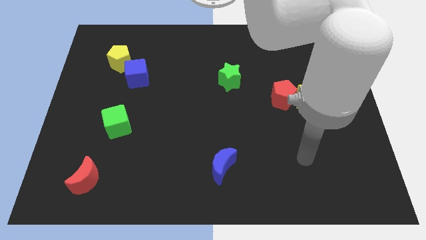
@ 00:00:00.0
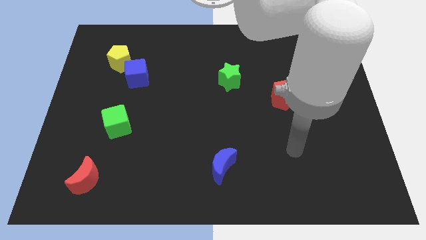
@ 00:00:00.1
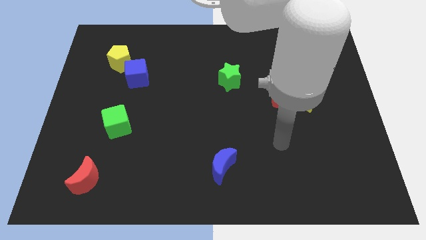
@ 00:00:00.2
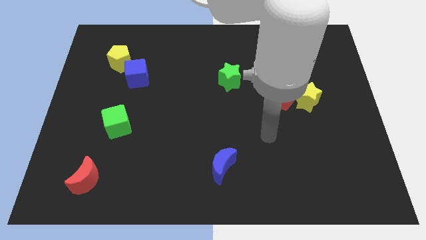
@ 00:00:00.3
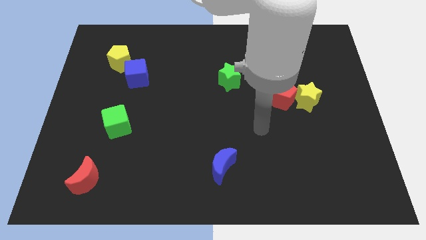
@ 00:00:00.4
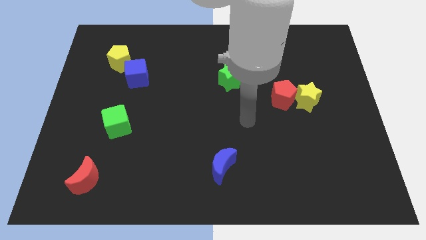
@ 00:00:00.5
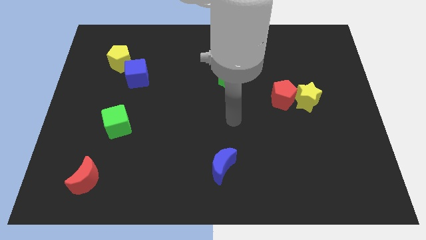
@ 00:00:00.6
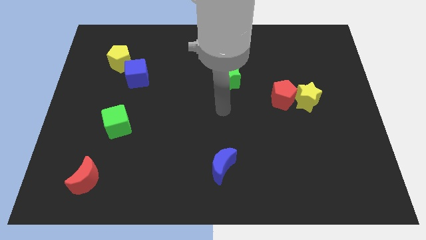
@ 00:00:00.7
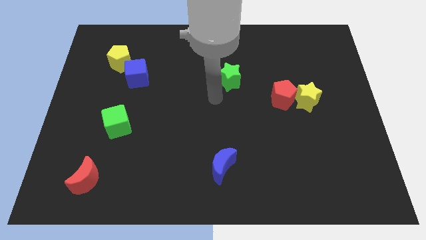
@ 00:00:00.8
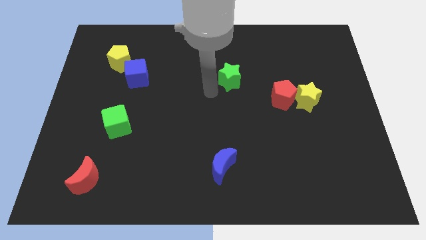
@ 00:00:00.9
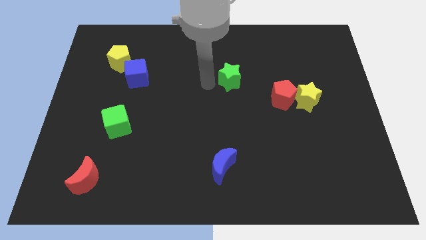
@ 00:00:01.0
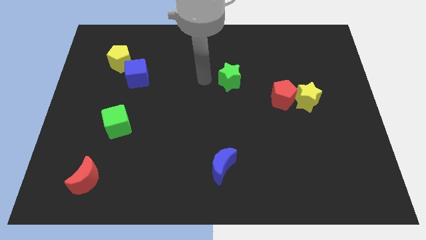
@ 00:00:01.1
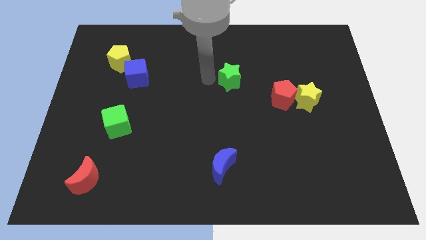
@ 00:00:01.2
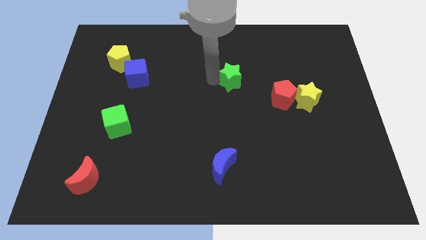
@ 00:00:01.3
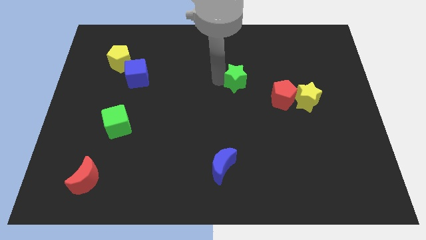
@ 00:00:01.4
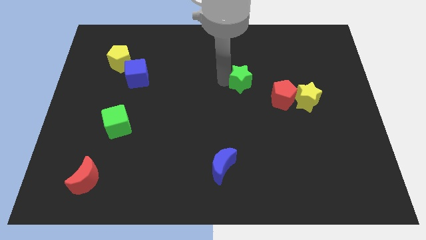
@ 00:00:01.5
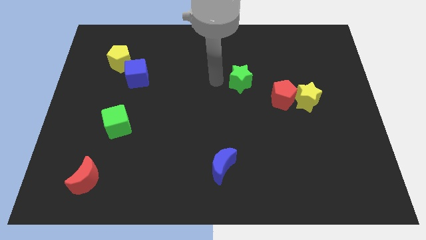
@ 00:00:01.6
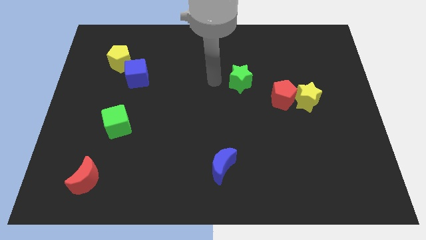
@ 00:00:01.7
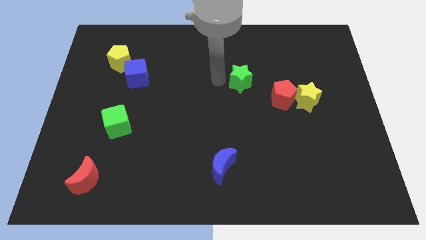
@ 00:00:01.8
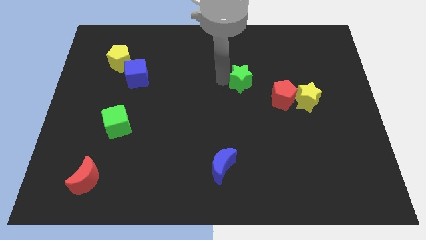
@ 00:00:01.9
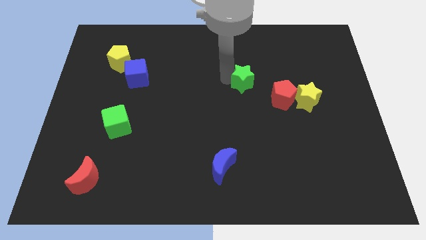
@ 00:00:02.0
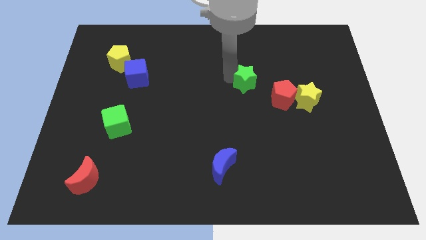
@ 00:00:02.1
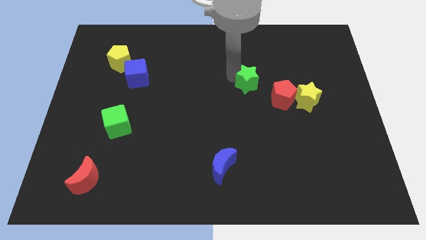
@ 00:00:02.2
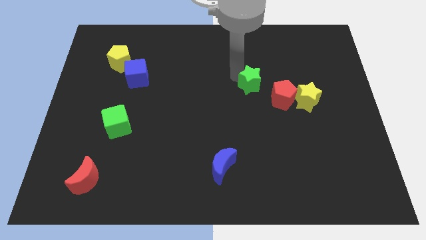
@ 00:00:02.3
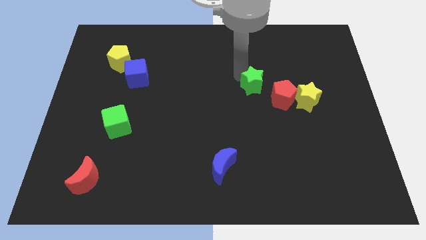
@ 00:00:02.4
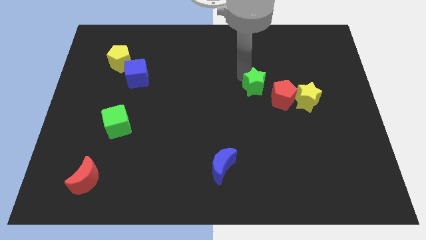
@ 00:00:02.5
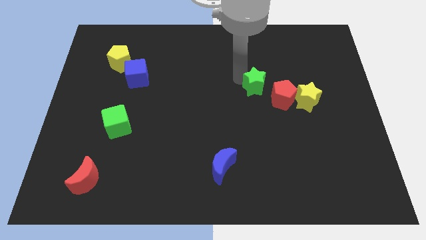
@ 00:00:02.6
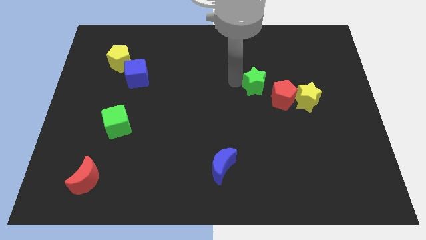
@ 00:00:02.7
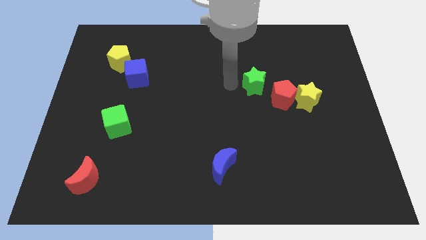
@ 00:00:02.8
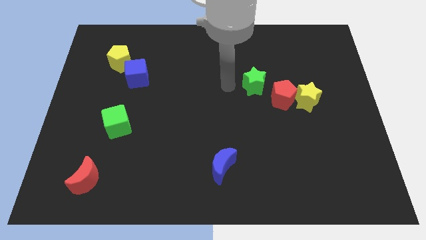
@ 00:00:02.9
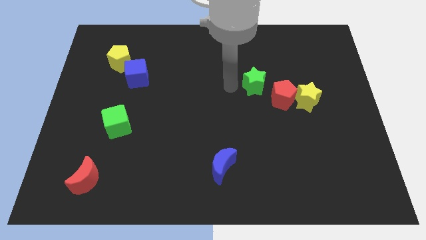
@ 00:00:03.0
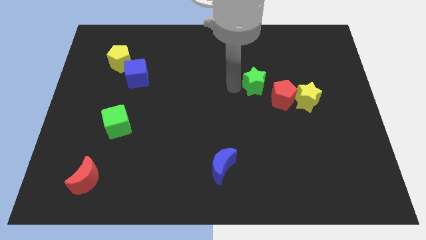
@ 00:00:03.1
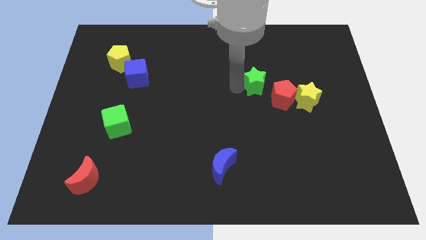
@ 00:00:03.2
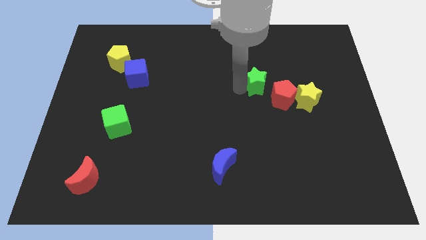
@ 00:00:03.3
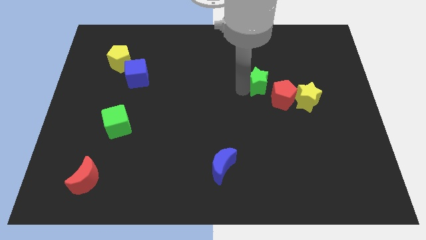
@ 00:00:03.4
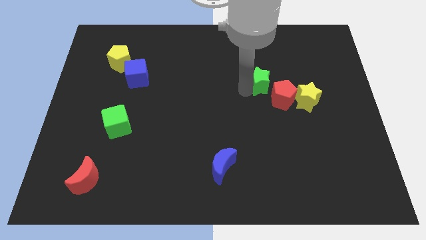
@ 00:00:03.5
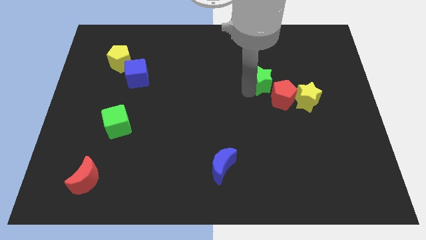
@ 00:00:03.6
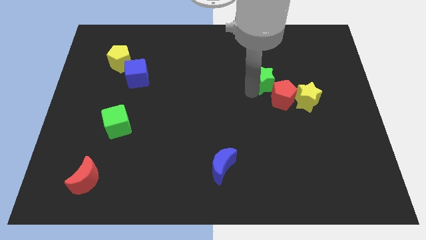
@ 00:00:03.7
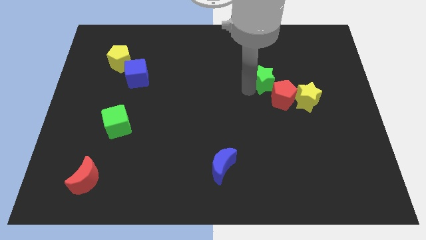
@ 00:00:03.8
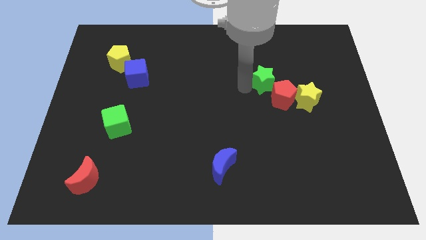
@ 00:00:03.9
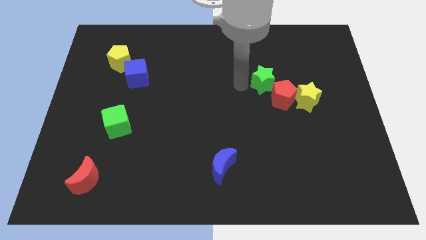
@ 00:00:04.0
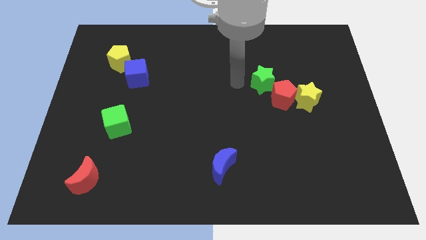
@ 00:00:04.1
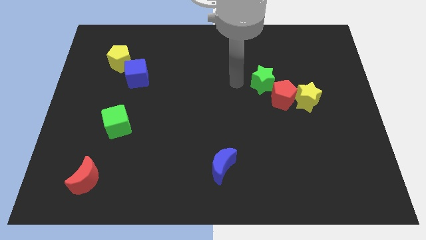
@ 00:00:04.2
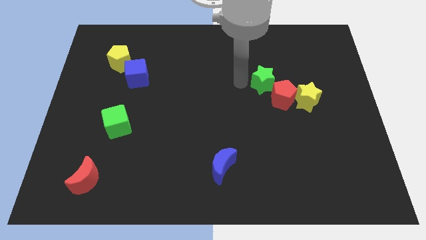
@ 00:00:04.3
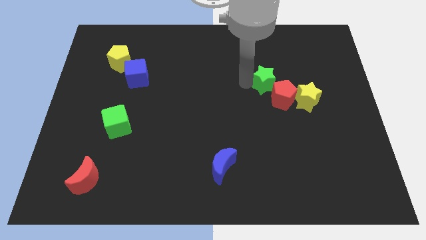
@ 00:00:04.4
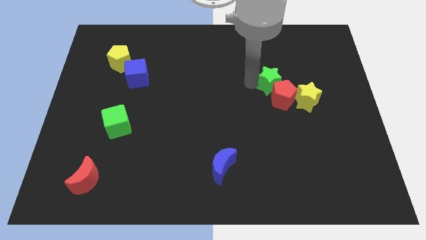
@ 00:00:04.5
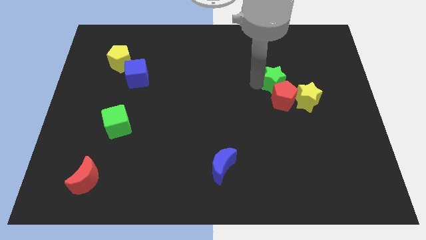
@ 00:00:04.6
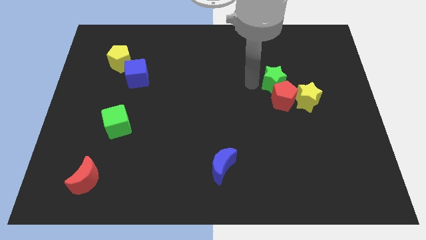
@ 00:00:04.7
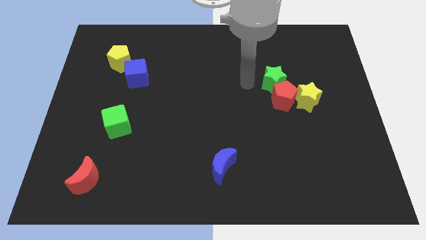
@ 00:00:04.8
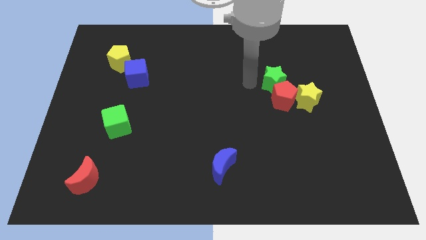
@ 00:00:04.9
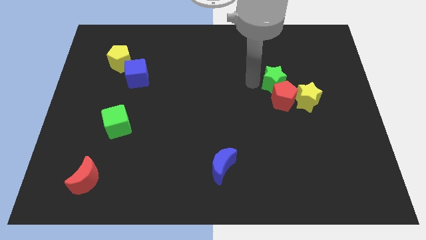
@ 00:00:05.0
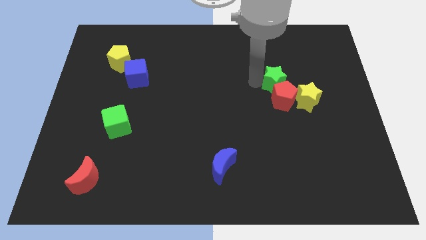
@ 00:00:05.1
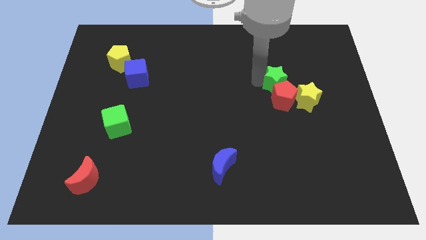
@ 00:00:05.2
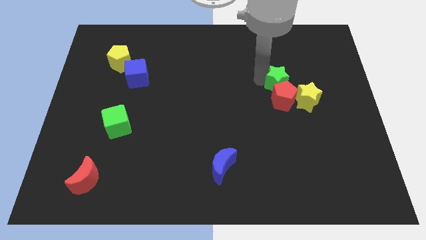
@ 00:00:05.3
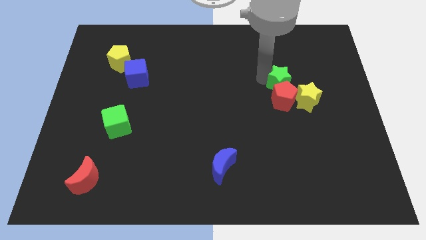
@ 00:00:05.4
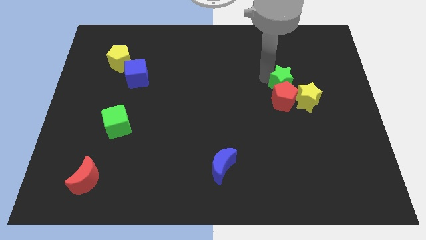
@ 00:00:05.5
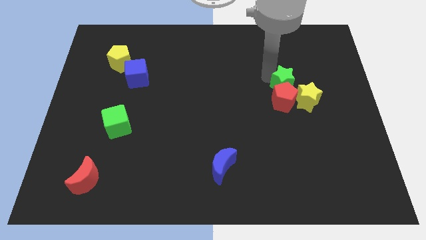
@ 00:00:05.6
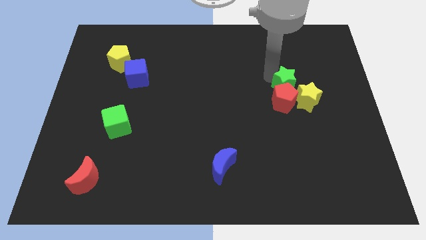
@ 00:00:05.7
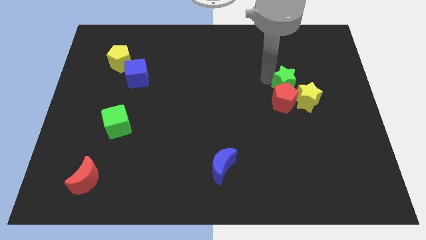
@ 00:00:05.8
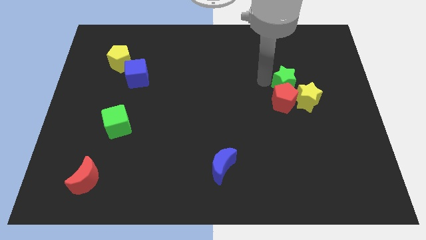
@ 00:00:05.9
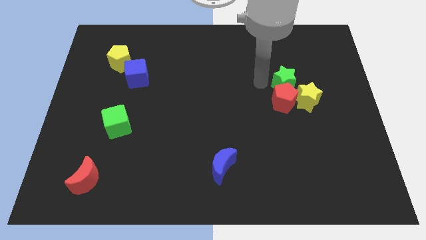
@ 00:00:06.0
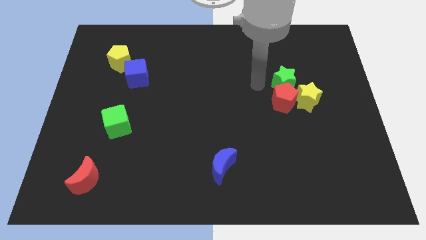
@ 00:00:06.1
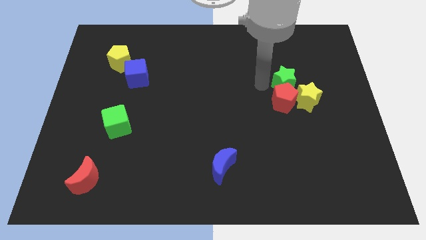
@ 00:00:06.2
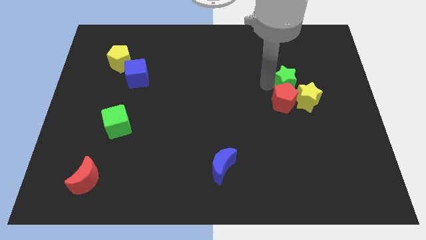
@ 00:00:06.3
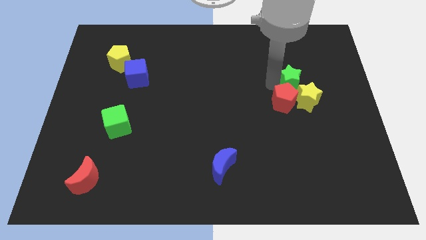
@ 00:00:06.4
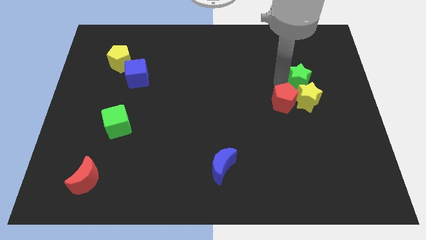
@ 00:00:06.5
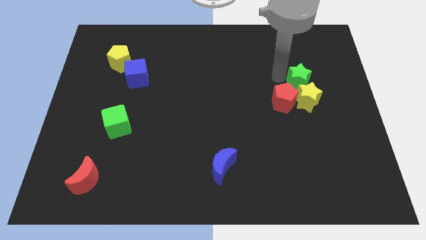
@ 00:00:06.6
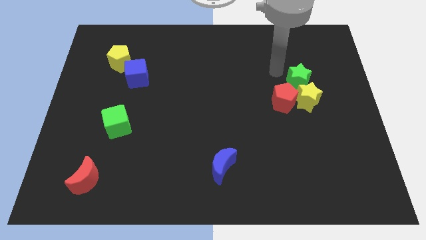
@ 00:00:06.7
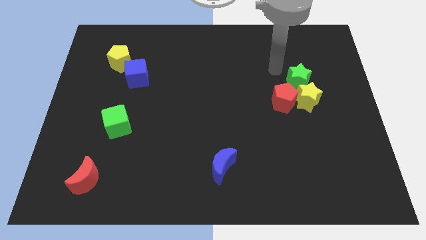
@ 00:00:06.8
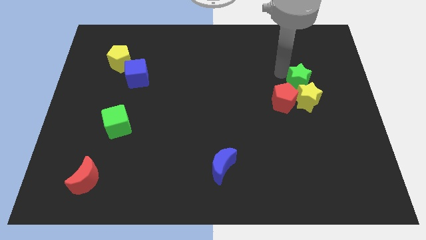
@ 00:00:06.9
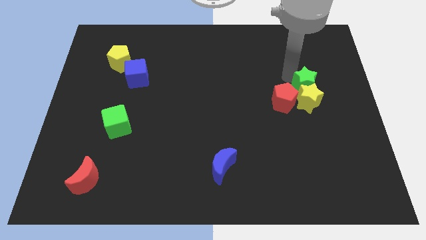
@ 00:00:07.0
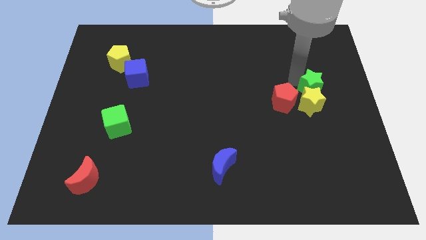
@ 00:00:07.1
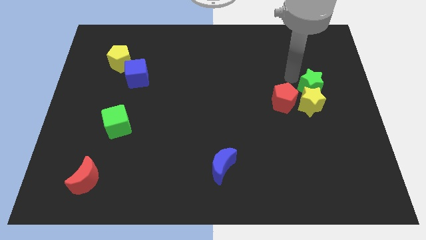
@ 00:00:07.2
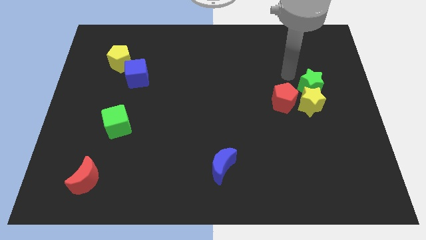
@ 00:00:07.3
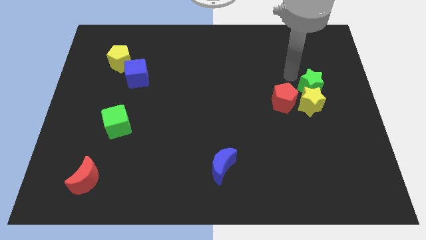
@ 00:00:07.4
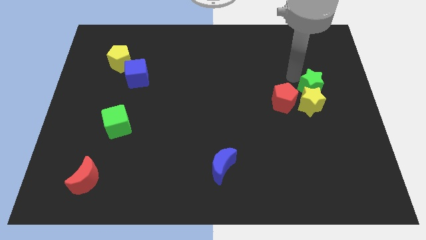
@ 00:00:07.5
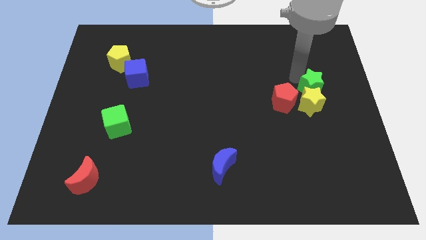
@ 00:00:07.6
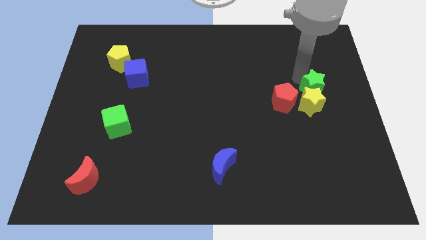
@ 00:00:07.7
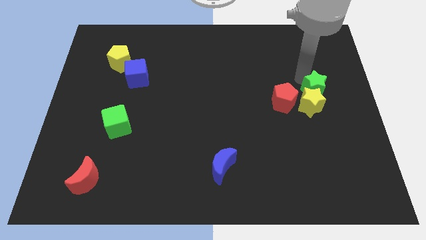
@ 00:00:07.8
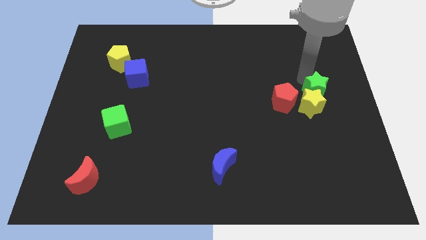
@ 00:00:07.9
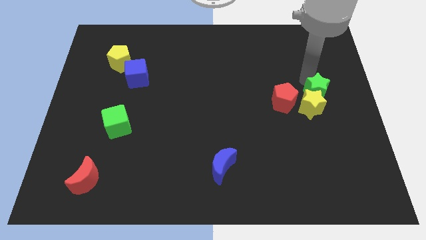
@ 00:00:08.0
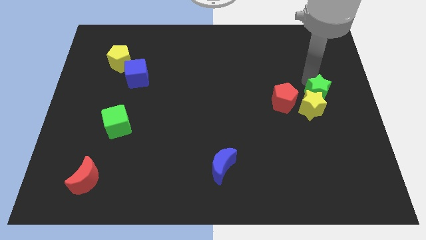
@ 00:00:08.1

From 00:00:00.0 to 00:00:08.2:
push the green star to the center right
